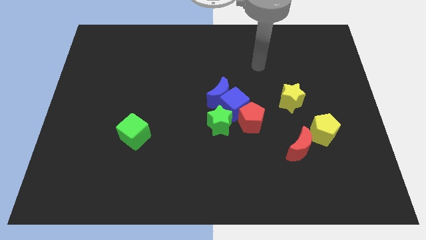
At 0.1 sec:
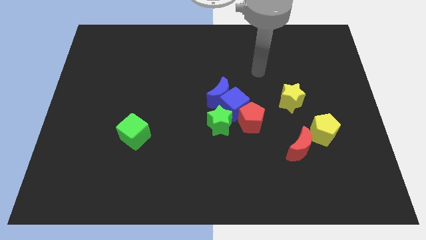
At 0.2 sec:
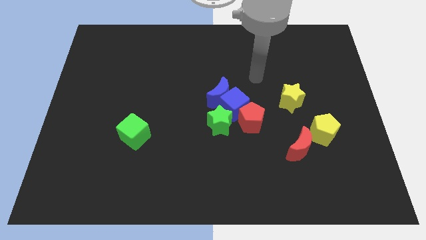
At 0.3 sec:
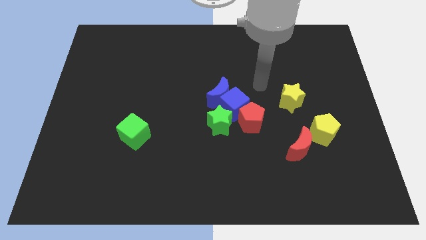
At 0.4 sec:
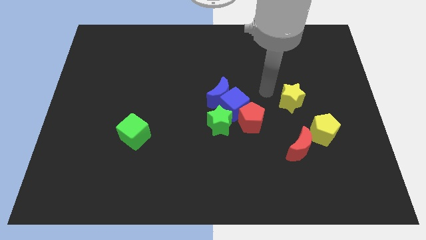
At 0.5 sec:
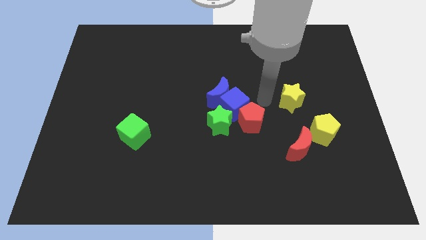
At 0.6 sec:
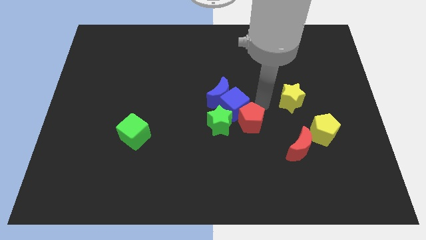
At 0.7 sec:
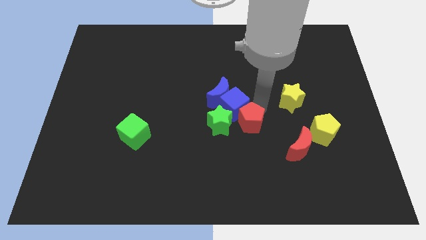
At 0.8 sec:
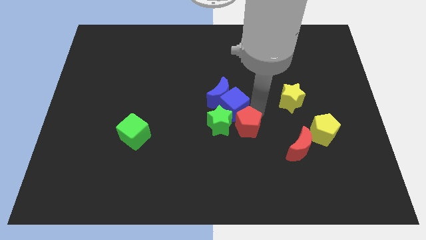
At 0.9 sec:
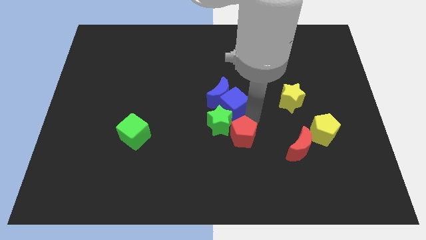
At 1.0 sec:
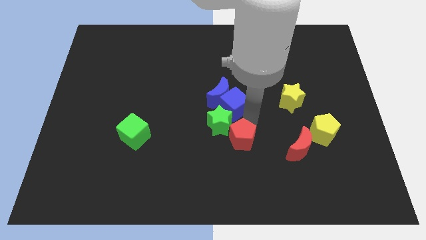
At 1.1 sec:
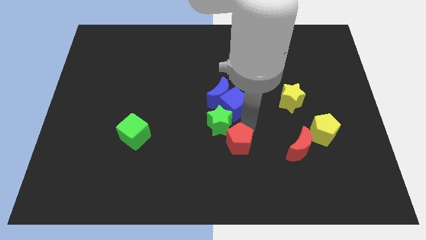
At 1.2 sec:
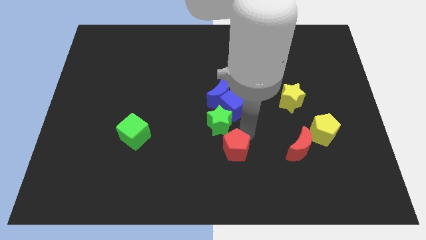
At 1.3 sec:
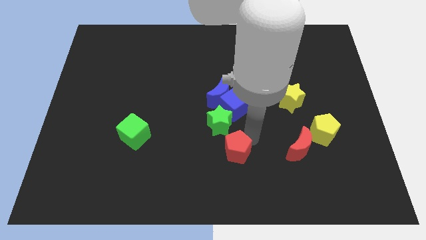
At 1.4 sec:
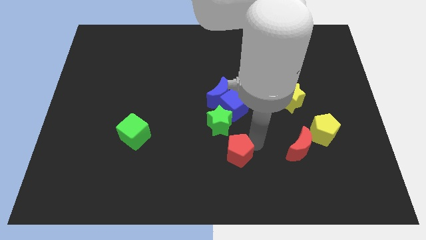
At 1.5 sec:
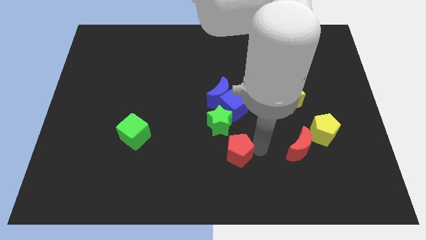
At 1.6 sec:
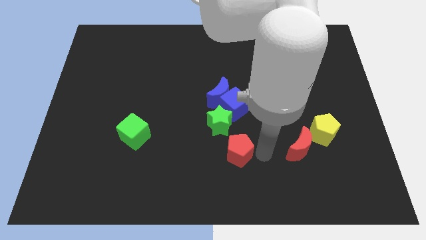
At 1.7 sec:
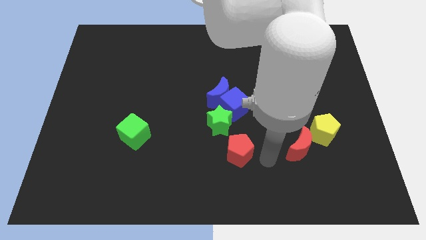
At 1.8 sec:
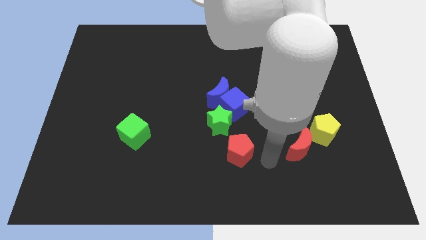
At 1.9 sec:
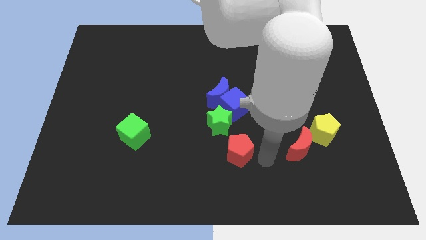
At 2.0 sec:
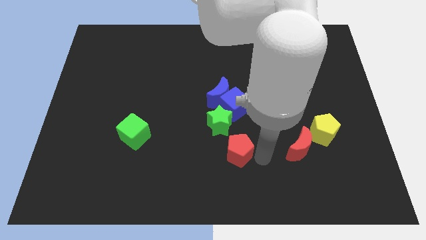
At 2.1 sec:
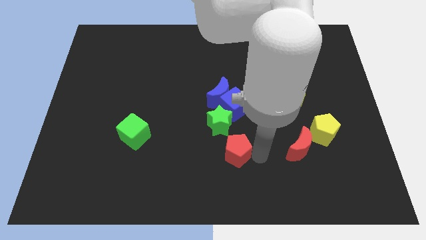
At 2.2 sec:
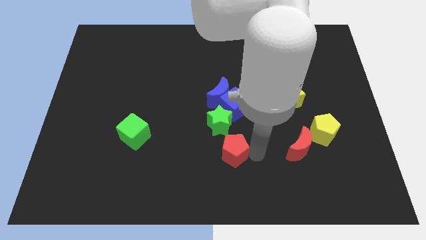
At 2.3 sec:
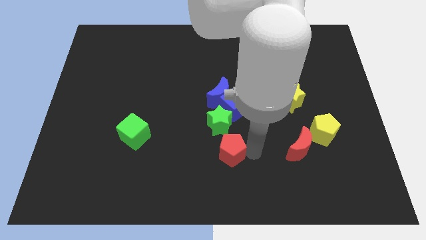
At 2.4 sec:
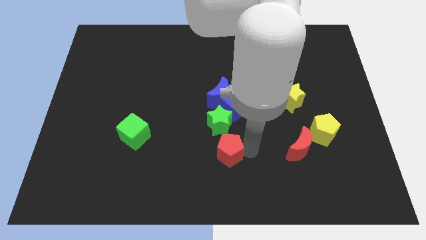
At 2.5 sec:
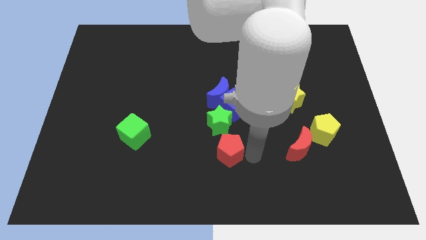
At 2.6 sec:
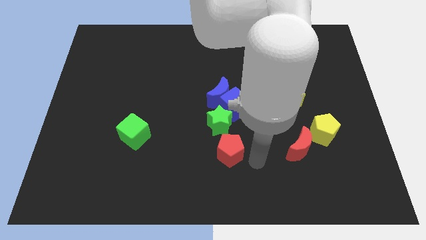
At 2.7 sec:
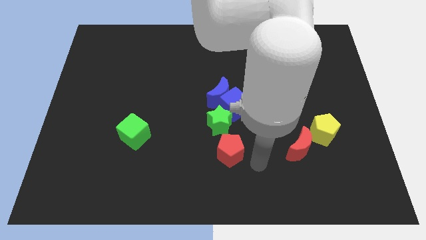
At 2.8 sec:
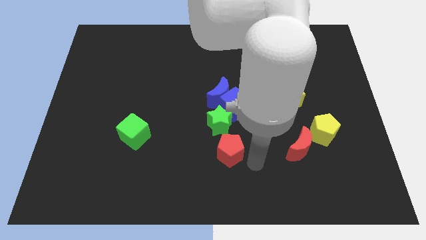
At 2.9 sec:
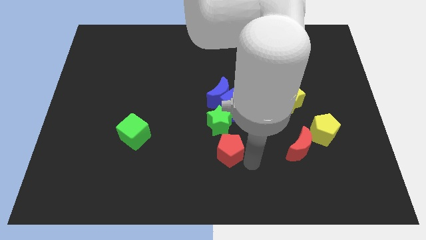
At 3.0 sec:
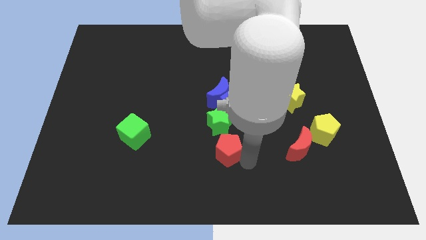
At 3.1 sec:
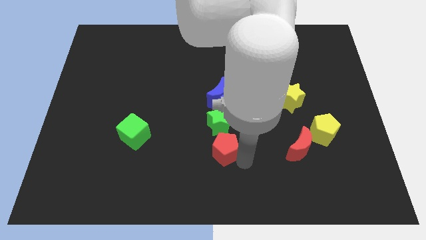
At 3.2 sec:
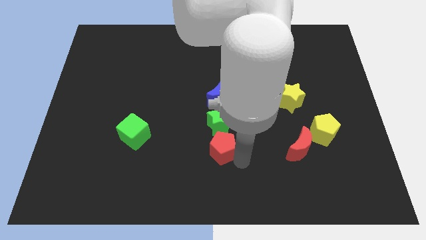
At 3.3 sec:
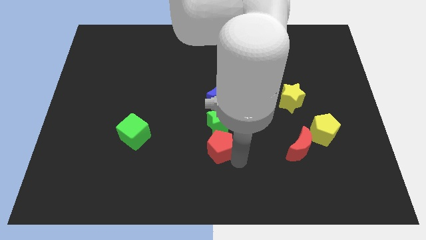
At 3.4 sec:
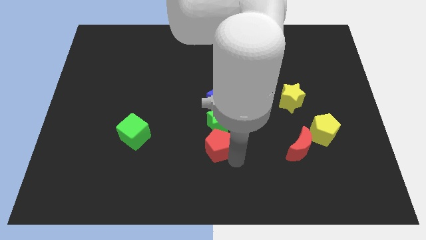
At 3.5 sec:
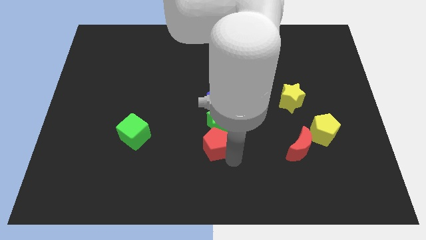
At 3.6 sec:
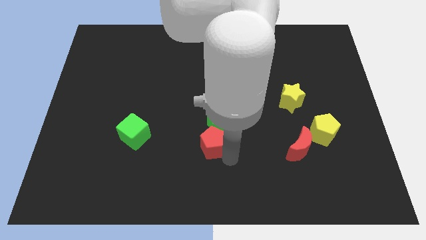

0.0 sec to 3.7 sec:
push the red pentagon slightly to the left

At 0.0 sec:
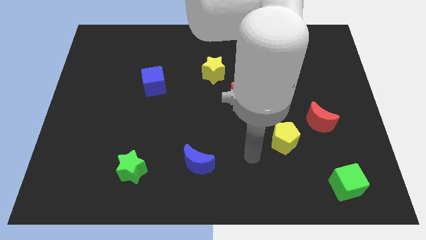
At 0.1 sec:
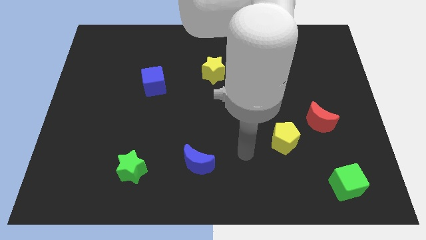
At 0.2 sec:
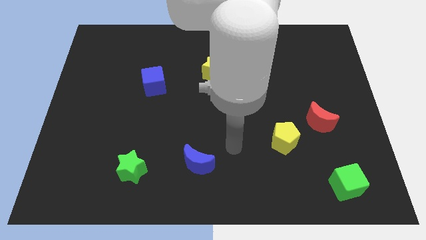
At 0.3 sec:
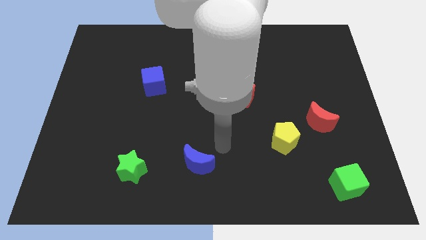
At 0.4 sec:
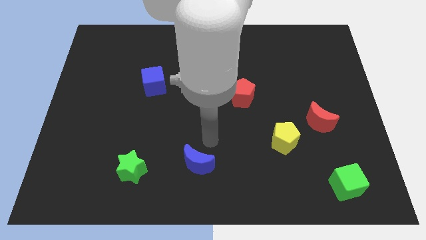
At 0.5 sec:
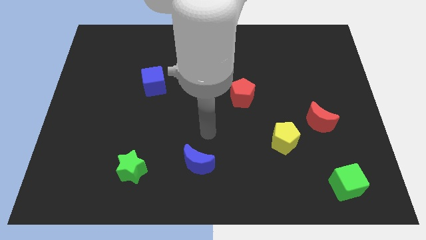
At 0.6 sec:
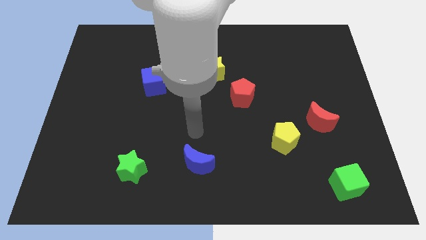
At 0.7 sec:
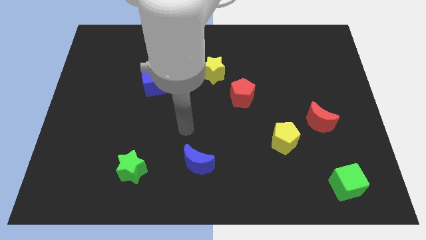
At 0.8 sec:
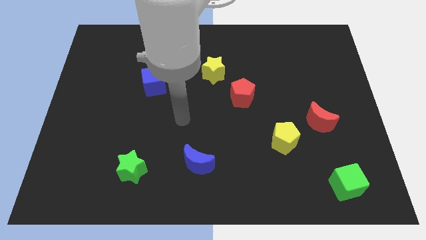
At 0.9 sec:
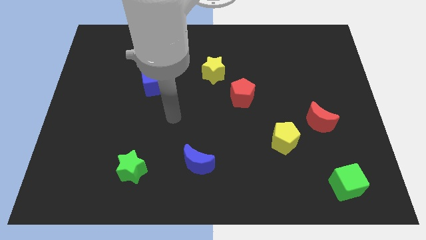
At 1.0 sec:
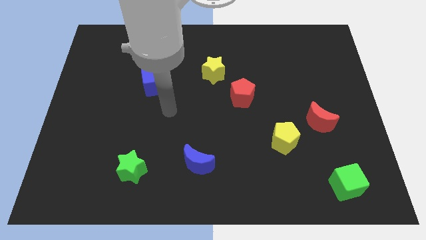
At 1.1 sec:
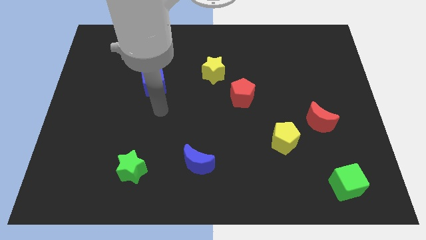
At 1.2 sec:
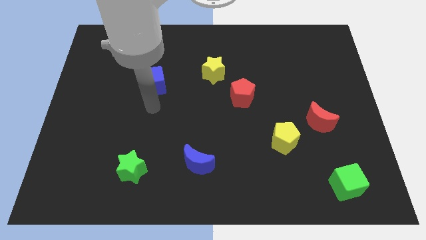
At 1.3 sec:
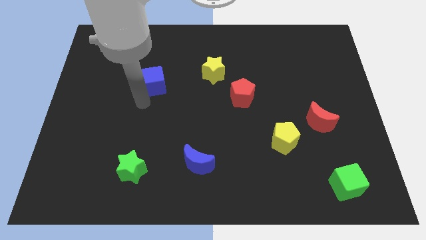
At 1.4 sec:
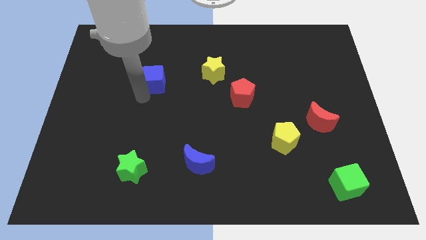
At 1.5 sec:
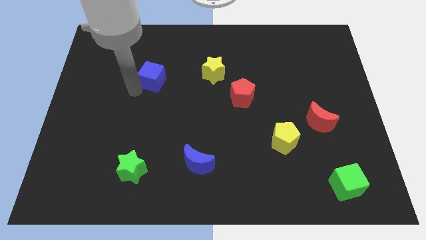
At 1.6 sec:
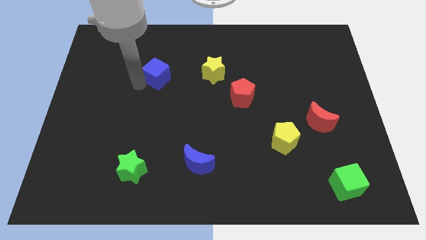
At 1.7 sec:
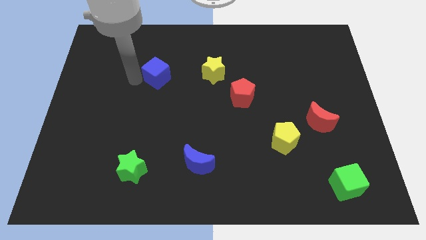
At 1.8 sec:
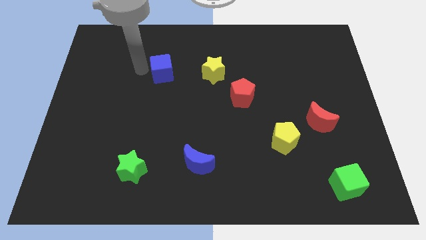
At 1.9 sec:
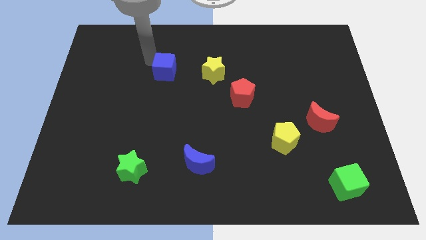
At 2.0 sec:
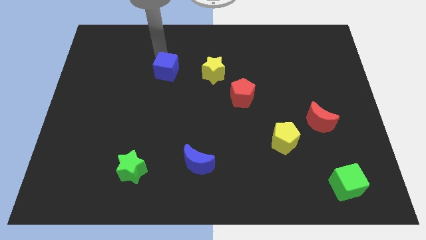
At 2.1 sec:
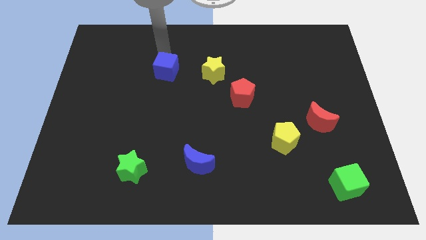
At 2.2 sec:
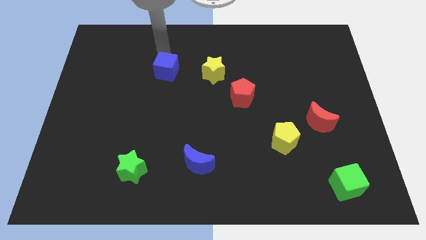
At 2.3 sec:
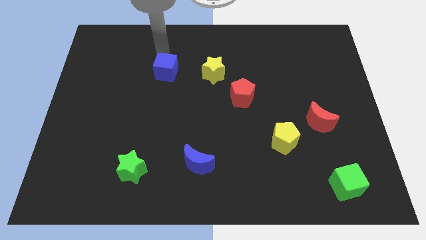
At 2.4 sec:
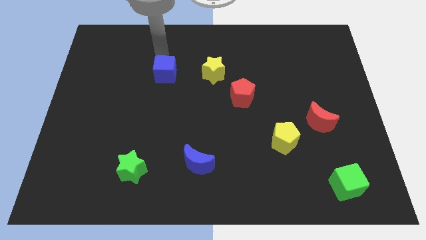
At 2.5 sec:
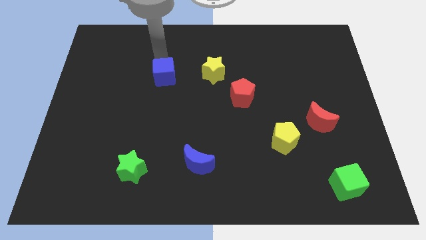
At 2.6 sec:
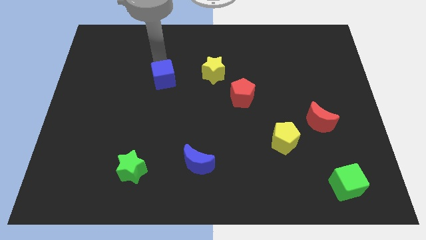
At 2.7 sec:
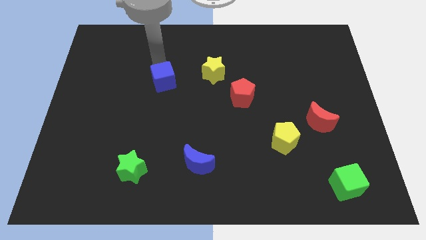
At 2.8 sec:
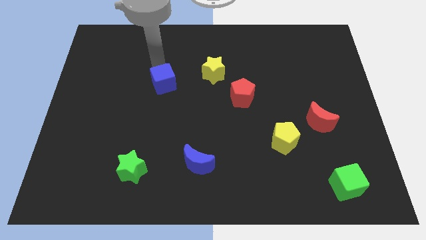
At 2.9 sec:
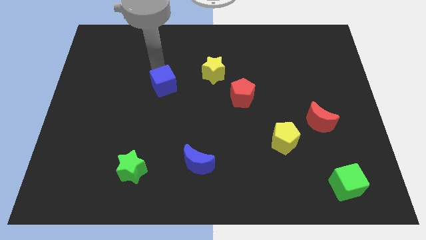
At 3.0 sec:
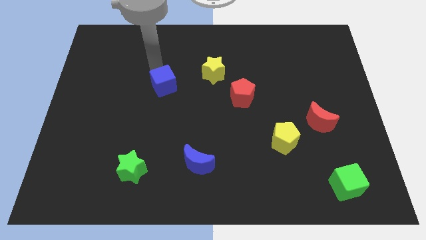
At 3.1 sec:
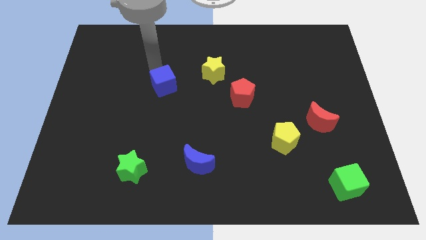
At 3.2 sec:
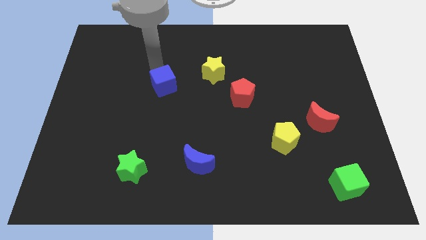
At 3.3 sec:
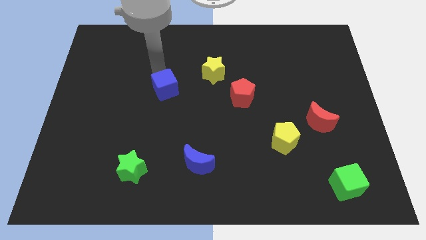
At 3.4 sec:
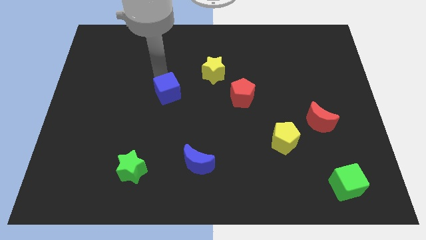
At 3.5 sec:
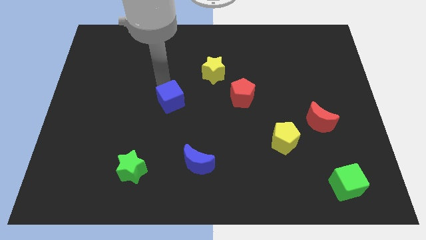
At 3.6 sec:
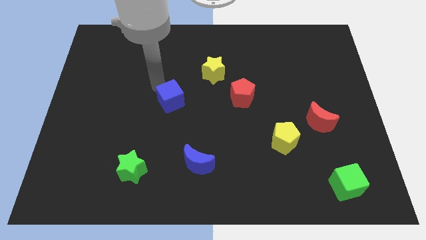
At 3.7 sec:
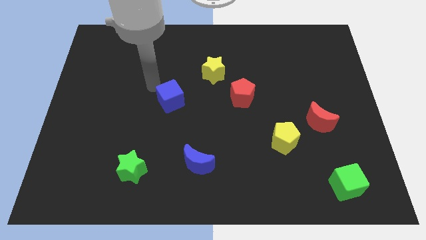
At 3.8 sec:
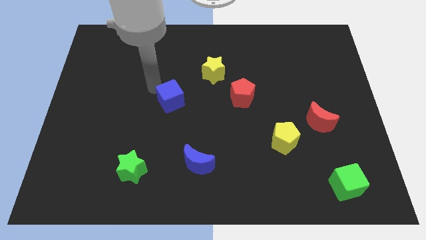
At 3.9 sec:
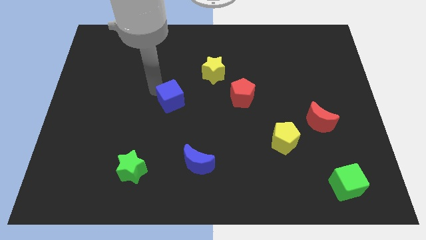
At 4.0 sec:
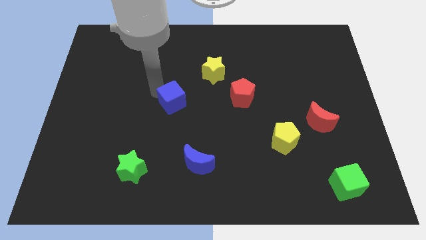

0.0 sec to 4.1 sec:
slide the blue cube downwards and to the right diagonally somewhat
